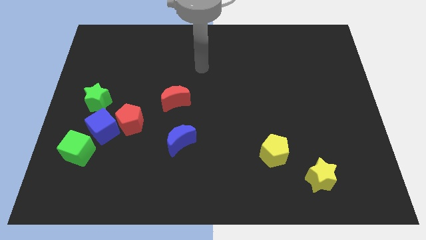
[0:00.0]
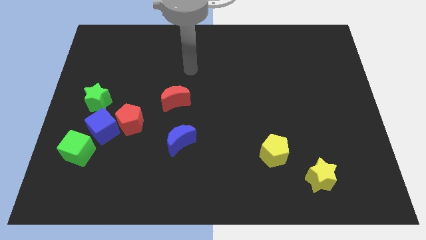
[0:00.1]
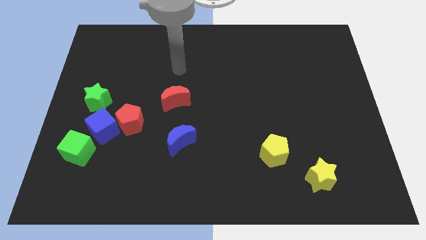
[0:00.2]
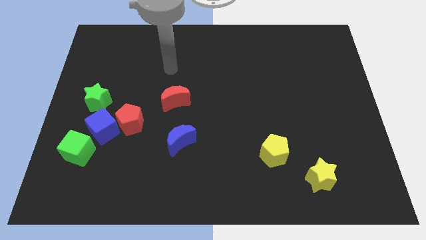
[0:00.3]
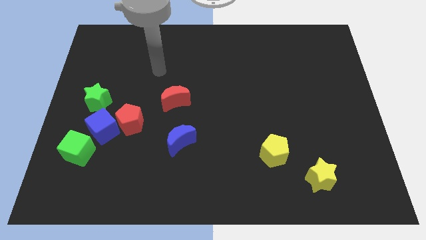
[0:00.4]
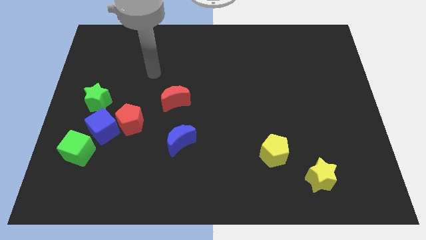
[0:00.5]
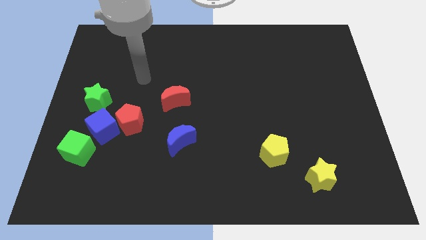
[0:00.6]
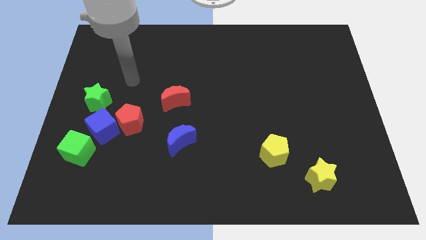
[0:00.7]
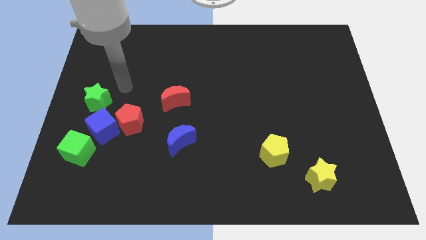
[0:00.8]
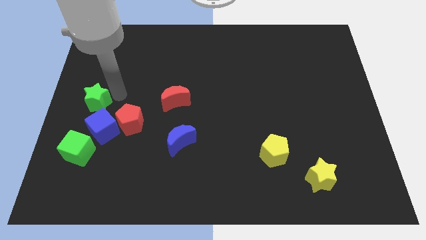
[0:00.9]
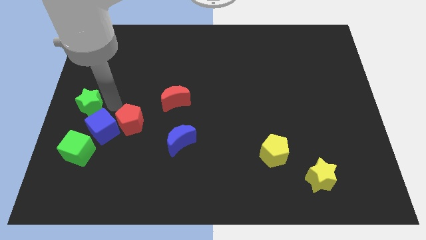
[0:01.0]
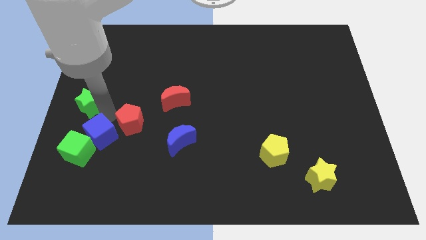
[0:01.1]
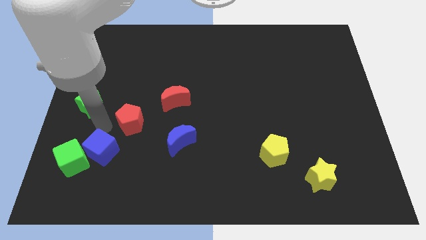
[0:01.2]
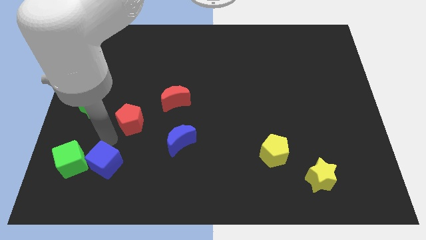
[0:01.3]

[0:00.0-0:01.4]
move the red pentagon away from the blue cube

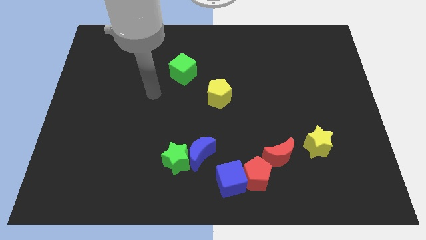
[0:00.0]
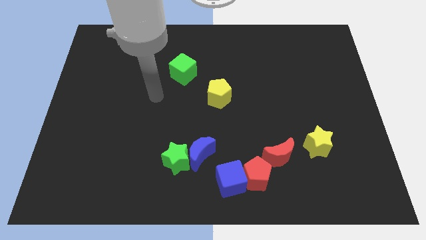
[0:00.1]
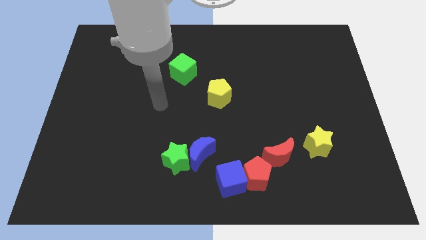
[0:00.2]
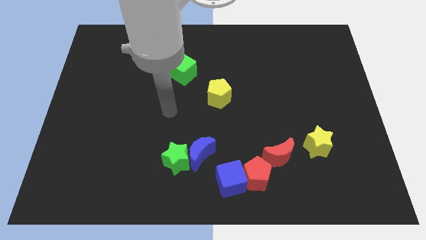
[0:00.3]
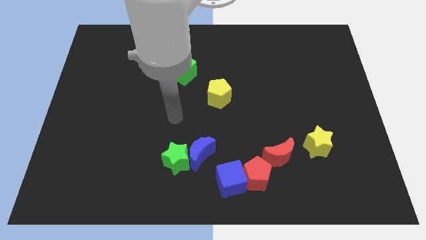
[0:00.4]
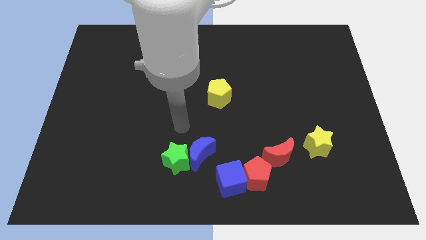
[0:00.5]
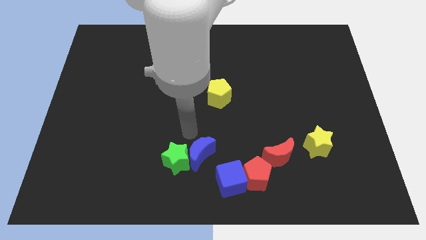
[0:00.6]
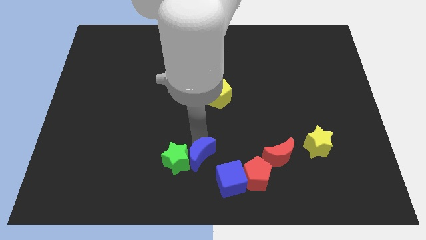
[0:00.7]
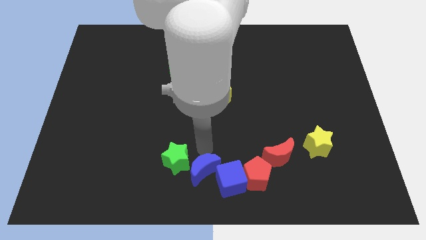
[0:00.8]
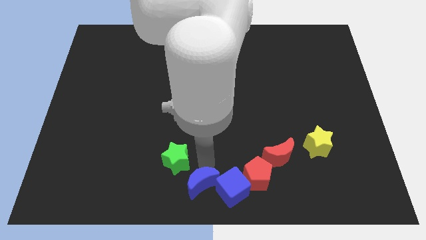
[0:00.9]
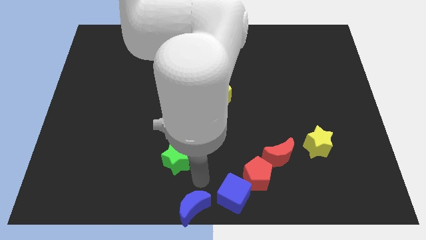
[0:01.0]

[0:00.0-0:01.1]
move the green star away from the blue moon

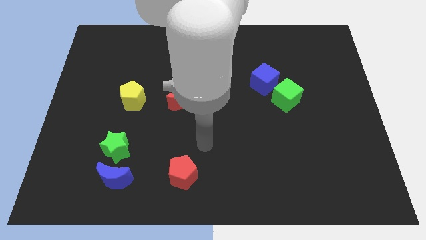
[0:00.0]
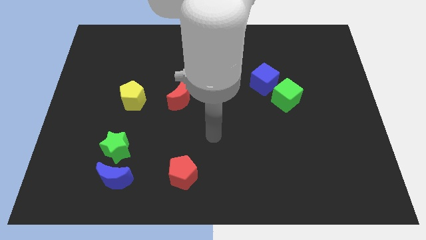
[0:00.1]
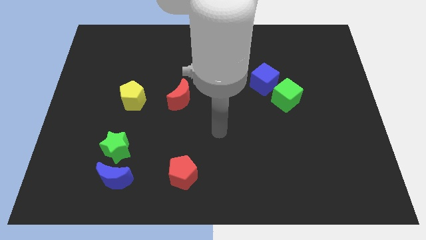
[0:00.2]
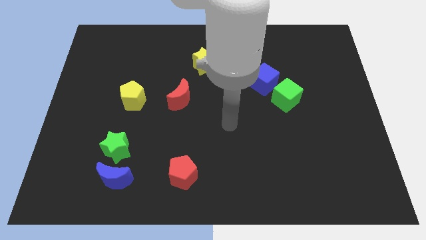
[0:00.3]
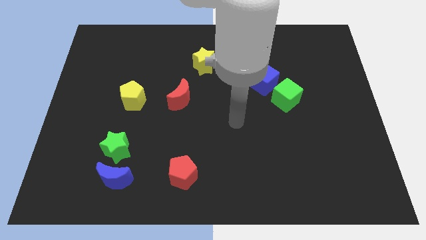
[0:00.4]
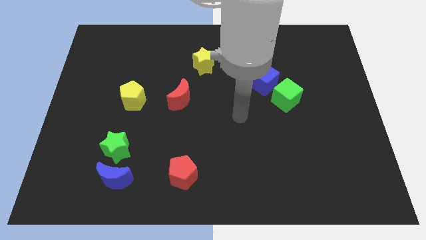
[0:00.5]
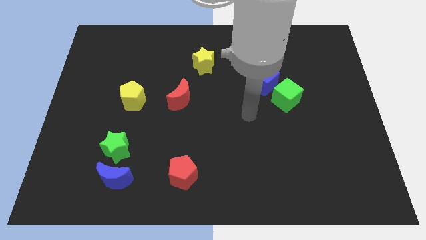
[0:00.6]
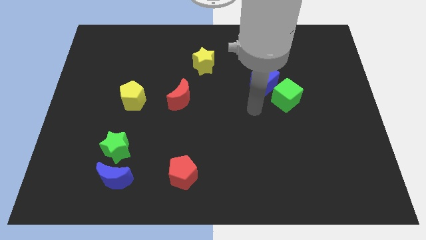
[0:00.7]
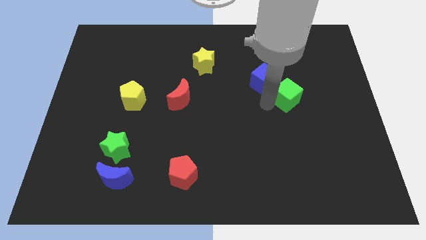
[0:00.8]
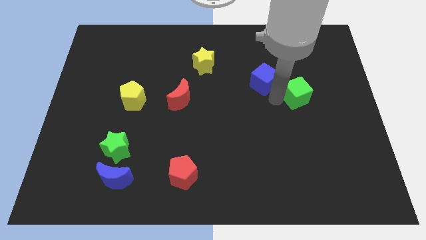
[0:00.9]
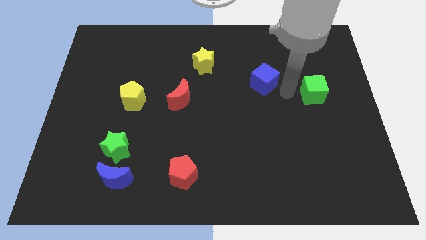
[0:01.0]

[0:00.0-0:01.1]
move the blue cube away from the green cube

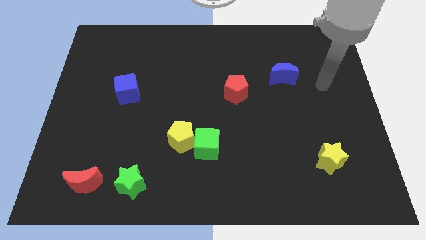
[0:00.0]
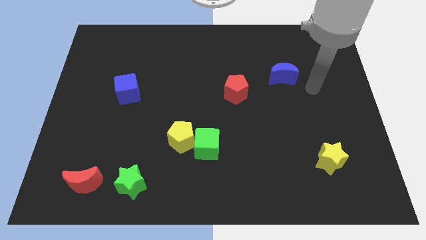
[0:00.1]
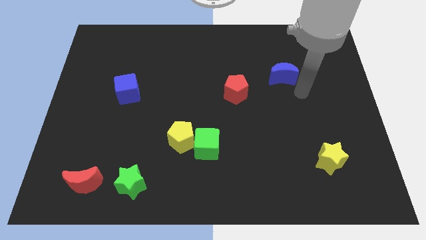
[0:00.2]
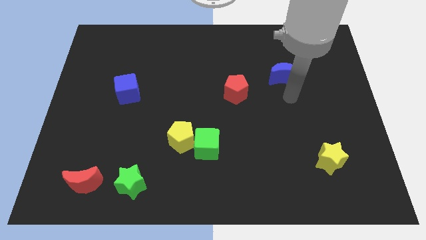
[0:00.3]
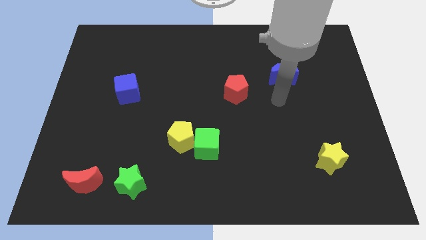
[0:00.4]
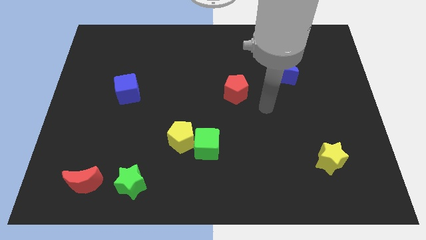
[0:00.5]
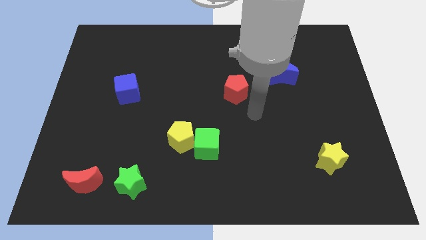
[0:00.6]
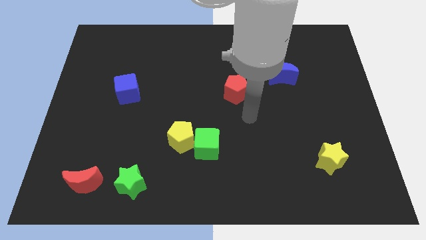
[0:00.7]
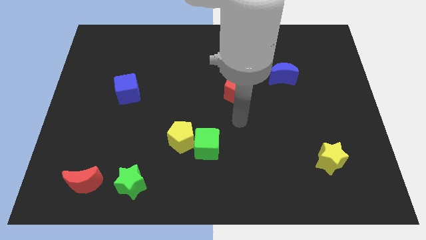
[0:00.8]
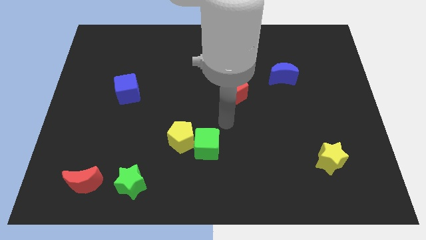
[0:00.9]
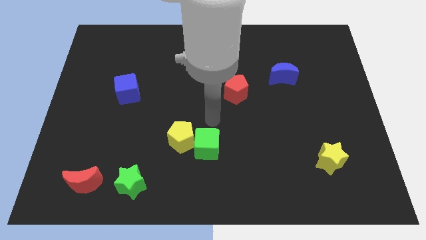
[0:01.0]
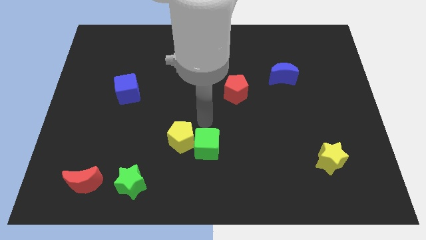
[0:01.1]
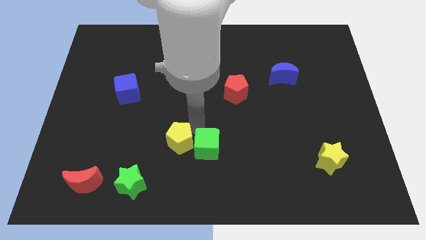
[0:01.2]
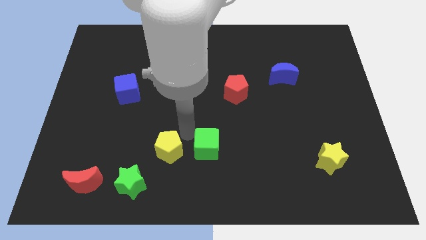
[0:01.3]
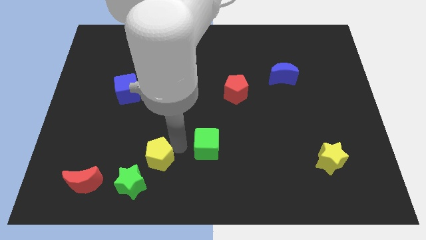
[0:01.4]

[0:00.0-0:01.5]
separate the green cube from the yellow pentagon

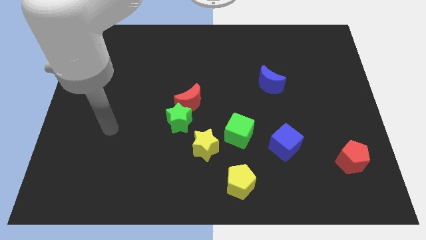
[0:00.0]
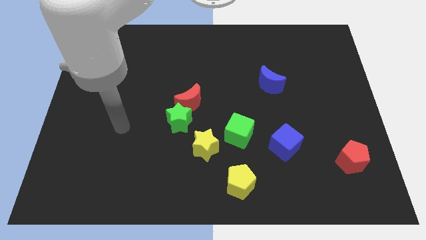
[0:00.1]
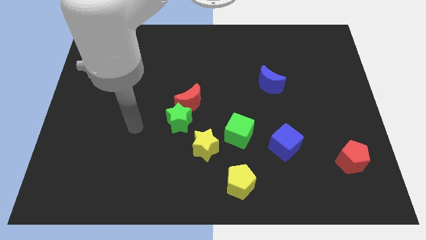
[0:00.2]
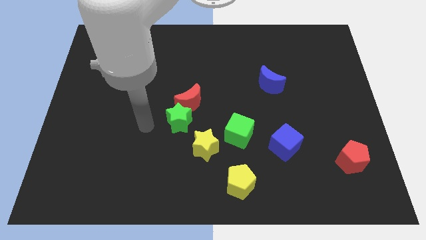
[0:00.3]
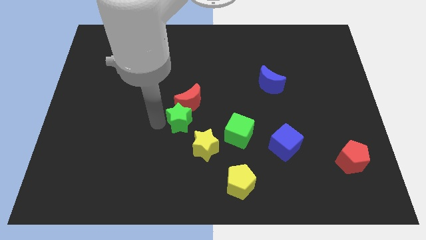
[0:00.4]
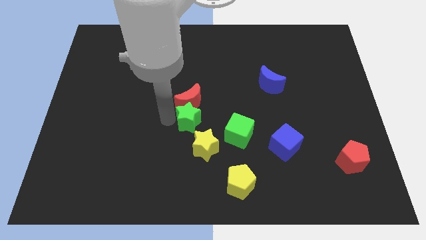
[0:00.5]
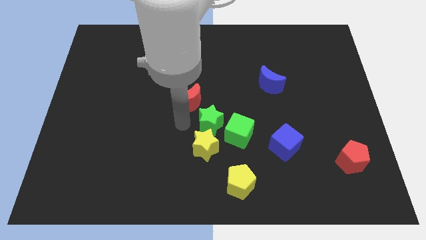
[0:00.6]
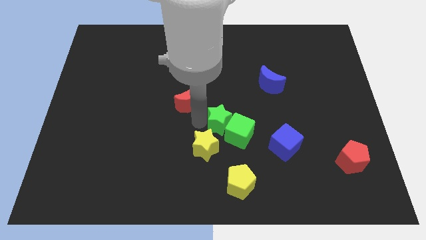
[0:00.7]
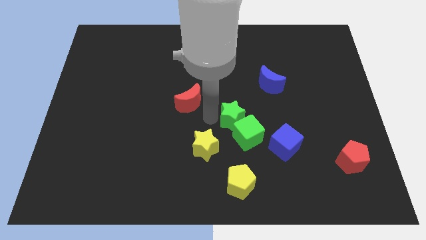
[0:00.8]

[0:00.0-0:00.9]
pull the red moon apart from the green star

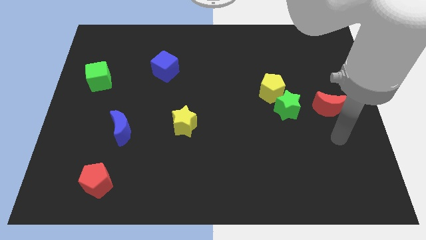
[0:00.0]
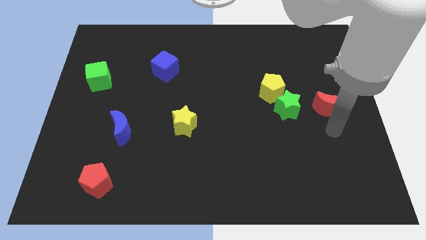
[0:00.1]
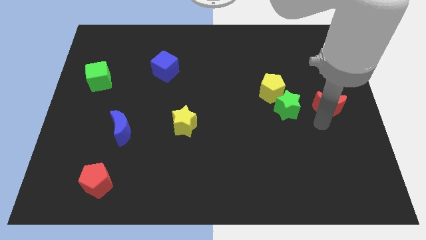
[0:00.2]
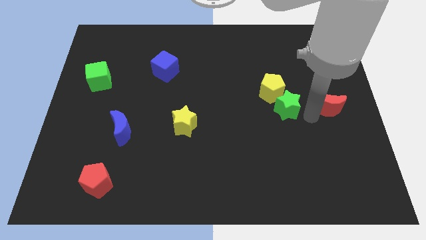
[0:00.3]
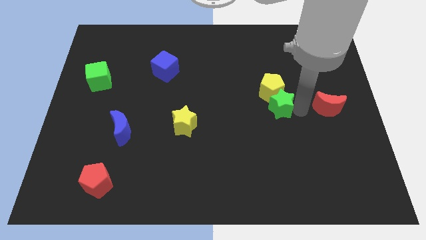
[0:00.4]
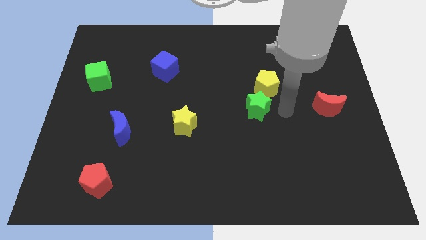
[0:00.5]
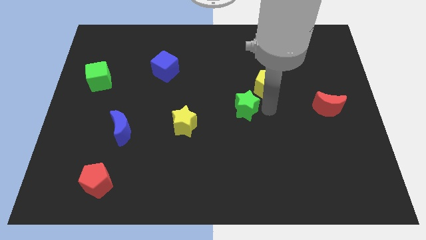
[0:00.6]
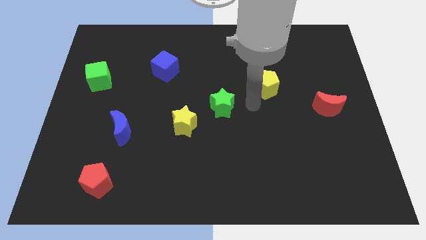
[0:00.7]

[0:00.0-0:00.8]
move the yellow pentagon away from the green star

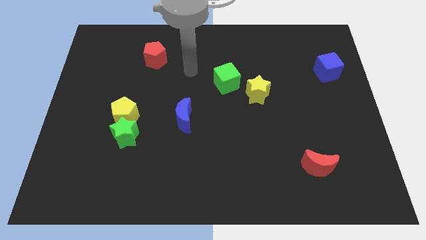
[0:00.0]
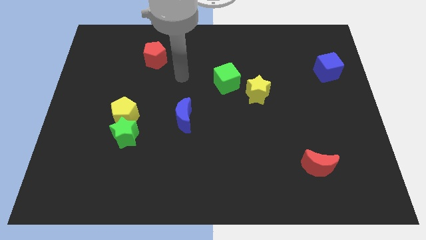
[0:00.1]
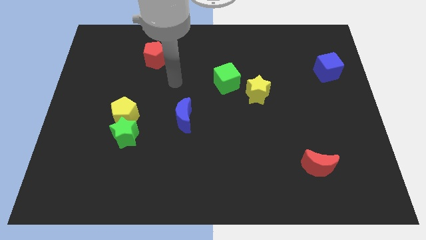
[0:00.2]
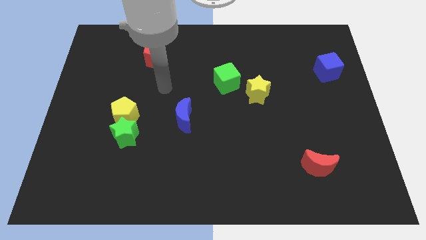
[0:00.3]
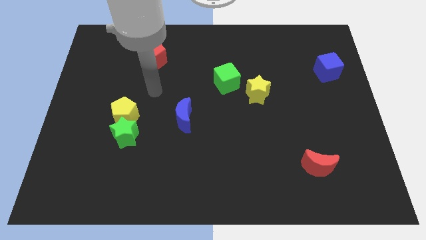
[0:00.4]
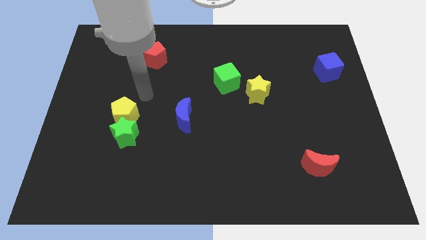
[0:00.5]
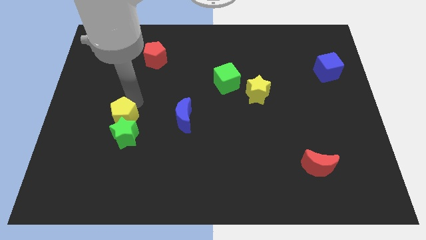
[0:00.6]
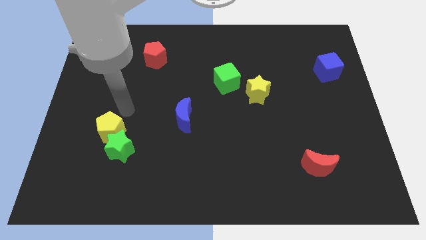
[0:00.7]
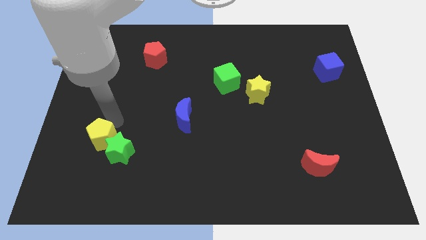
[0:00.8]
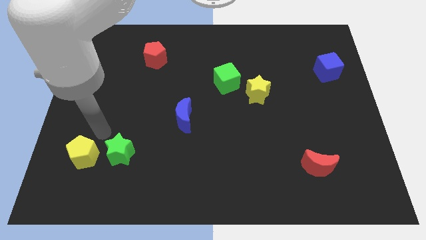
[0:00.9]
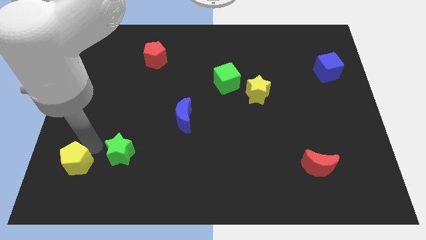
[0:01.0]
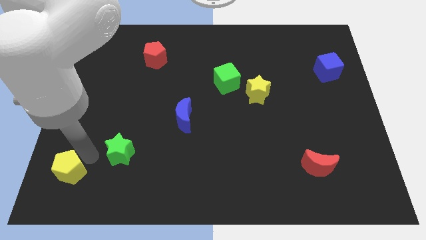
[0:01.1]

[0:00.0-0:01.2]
move the green star away from the yellow pentagon

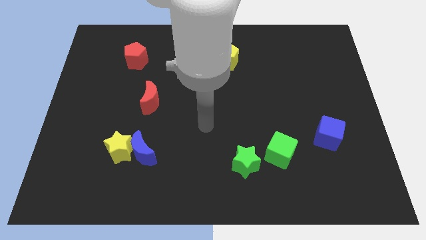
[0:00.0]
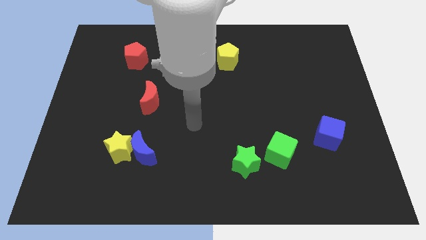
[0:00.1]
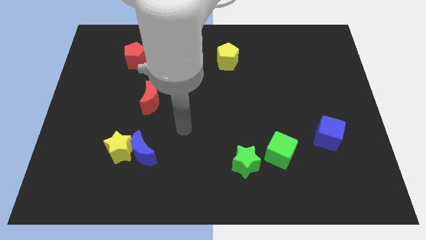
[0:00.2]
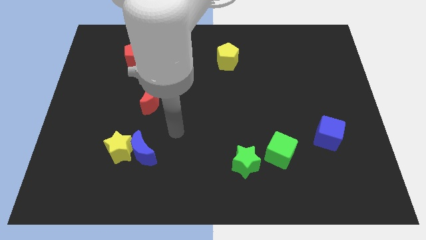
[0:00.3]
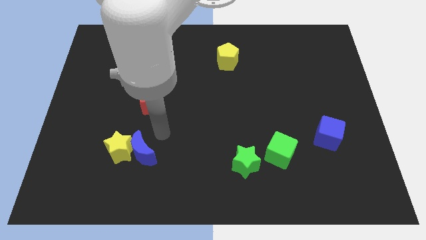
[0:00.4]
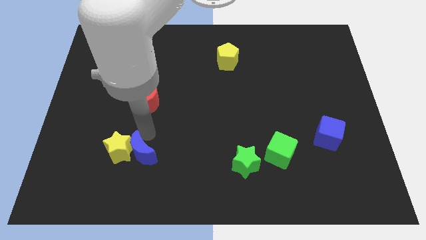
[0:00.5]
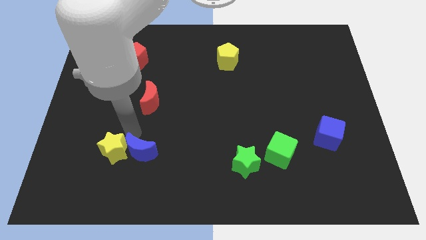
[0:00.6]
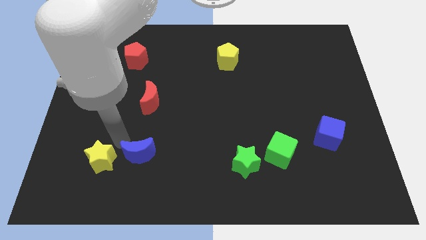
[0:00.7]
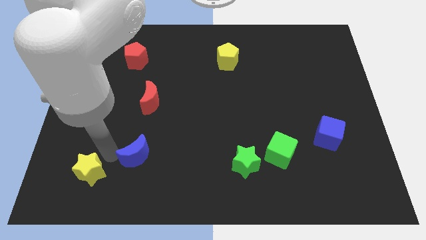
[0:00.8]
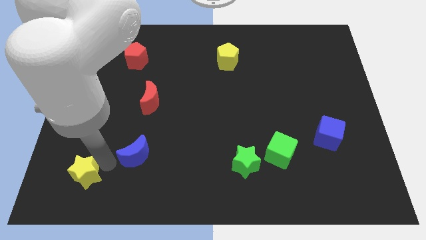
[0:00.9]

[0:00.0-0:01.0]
pull the blue moon apart from the yellow star

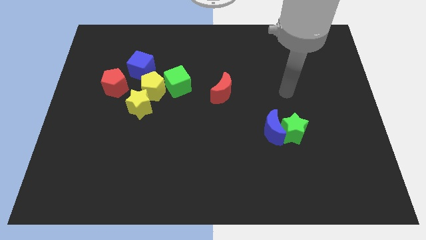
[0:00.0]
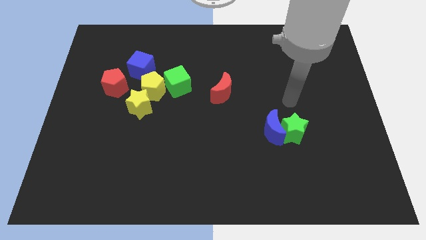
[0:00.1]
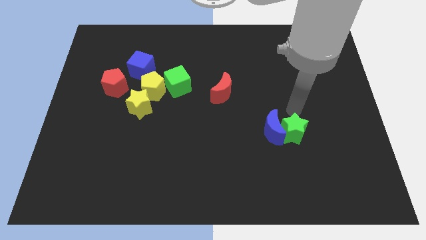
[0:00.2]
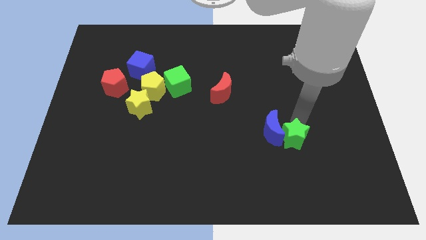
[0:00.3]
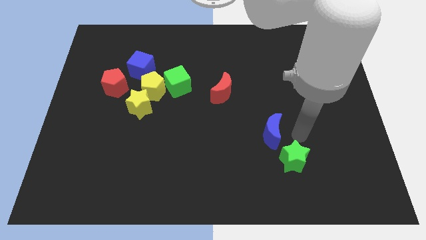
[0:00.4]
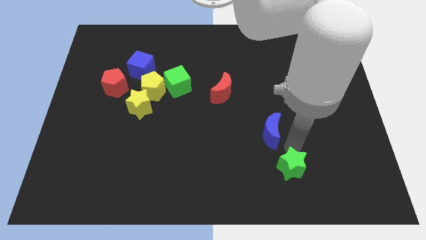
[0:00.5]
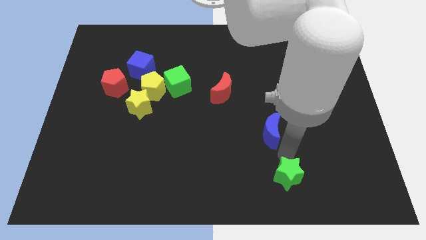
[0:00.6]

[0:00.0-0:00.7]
separate the blue moon from the green star
